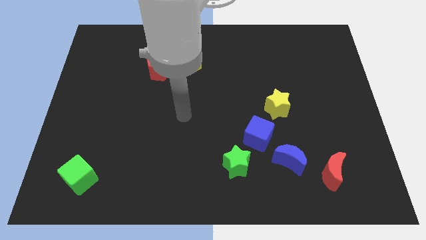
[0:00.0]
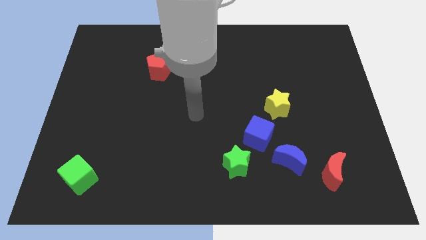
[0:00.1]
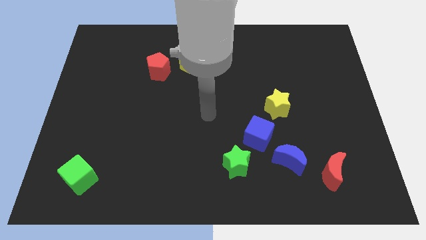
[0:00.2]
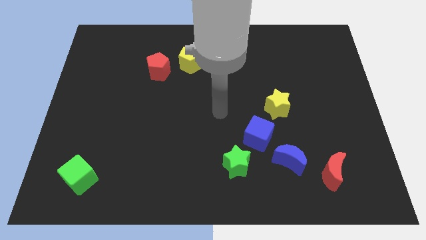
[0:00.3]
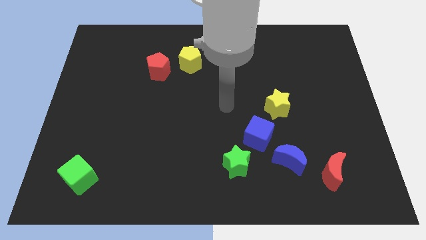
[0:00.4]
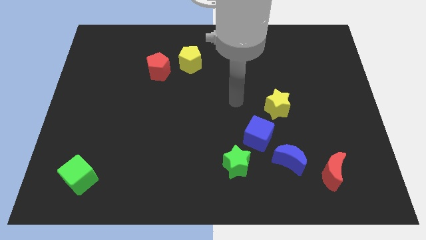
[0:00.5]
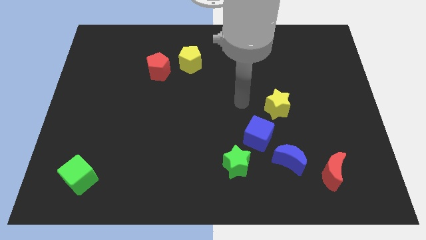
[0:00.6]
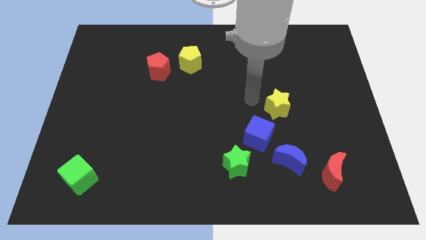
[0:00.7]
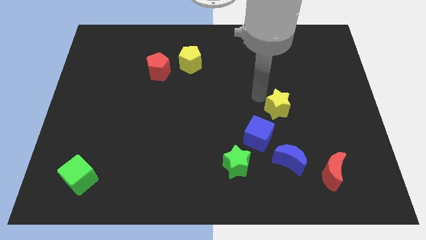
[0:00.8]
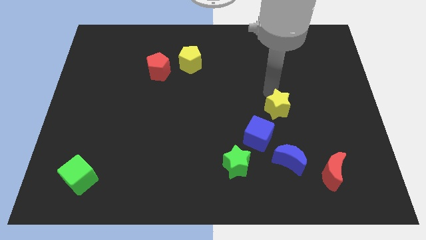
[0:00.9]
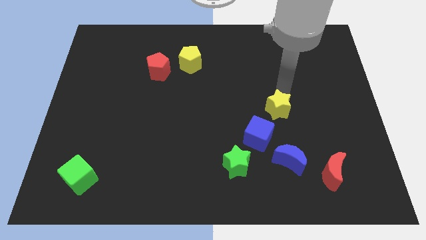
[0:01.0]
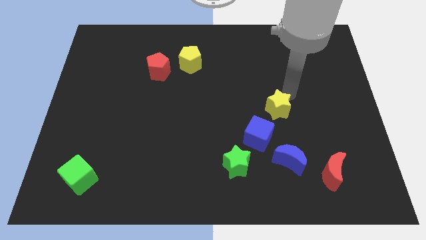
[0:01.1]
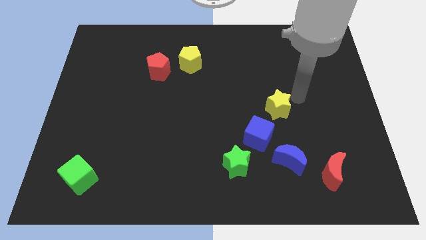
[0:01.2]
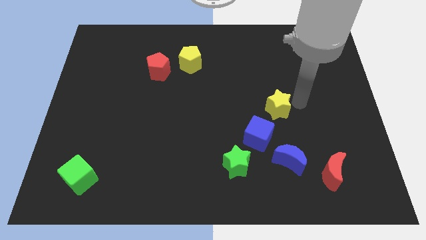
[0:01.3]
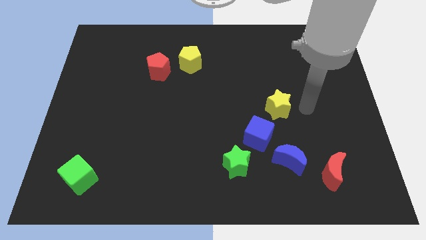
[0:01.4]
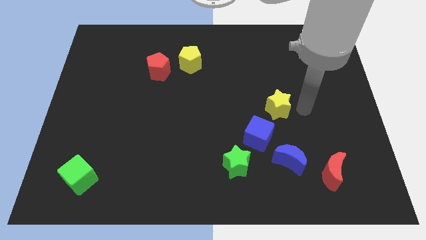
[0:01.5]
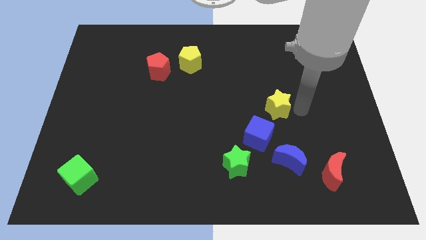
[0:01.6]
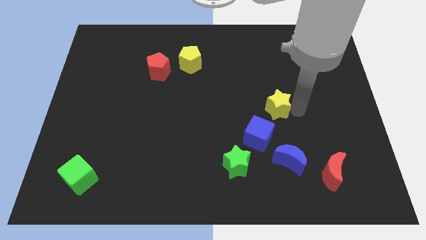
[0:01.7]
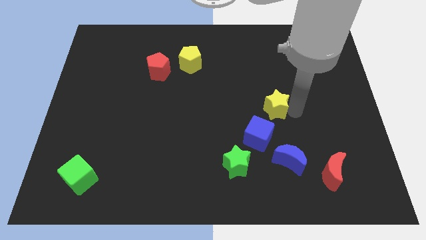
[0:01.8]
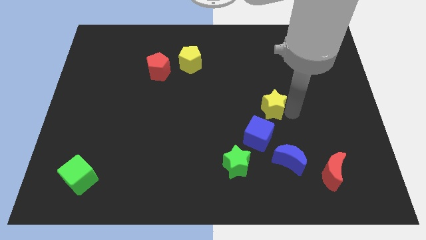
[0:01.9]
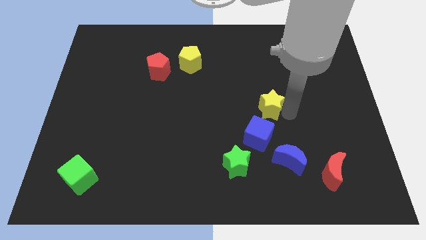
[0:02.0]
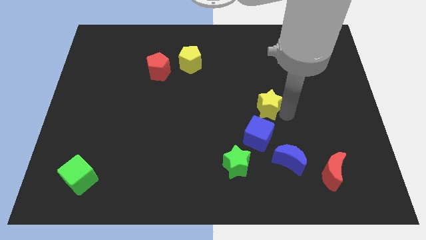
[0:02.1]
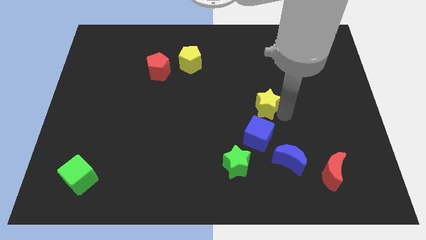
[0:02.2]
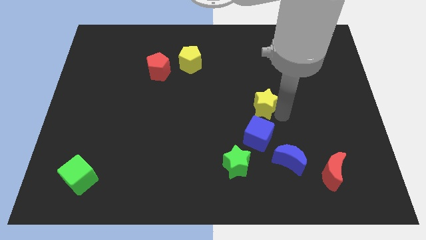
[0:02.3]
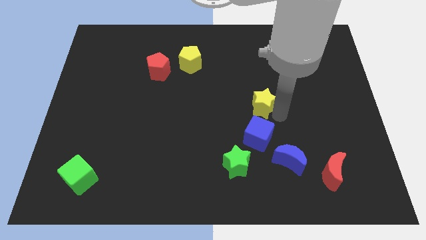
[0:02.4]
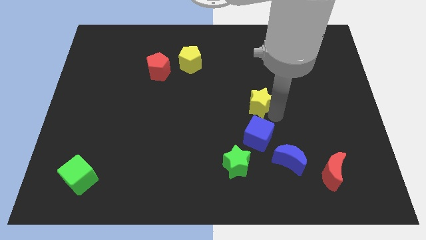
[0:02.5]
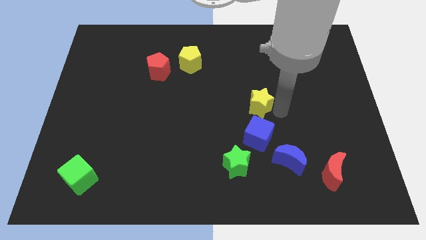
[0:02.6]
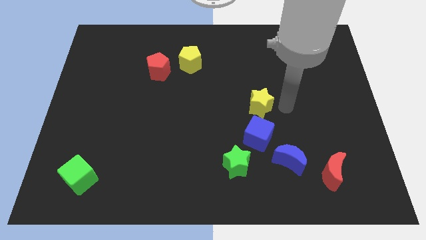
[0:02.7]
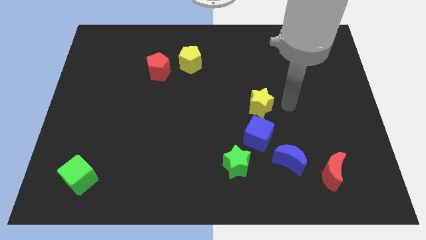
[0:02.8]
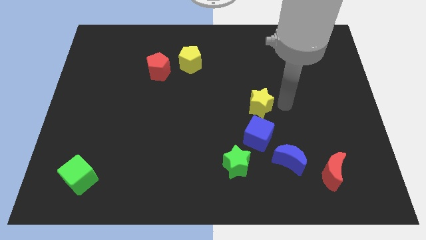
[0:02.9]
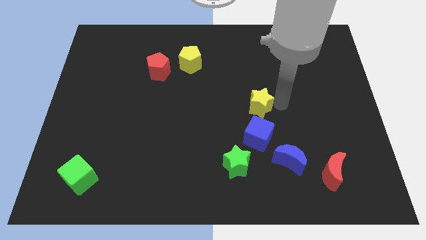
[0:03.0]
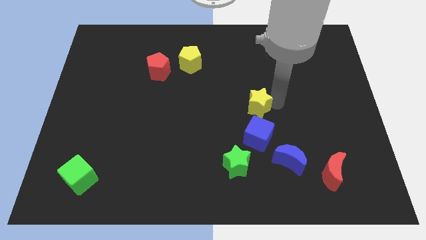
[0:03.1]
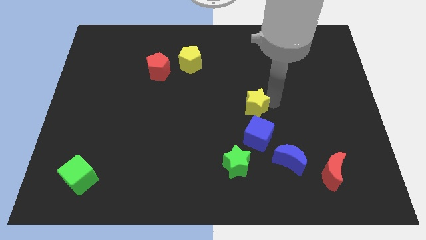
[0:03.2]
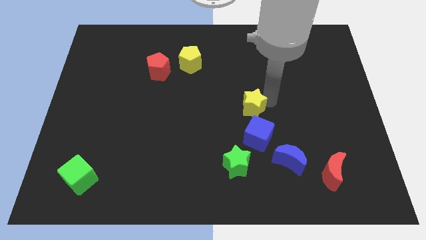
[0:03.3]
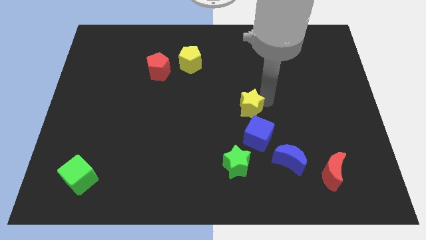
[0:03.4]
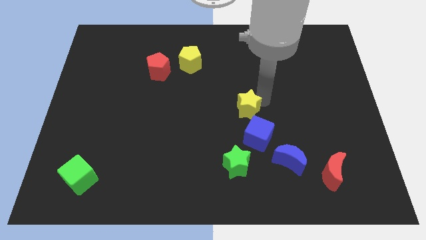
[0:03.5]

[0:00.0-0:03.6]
slightly move the yellow star to the left

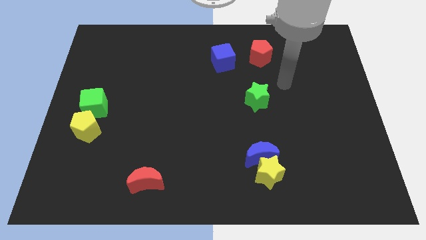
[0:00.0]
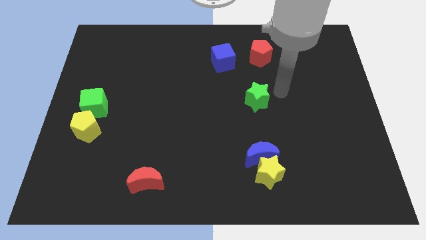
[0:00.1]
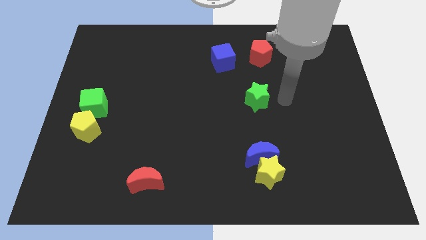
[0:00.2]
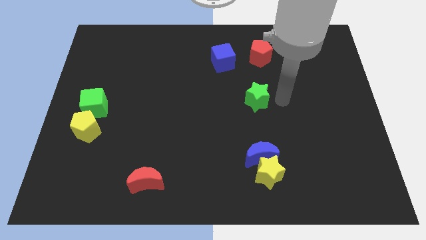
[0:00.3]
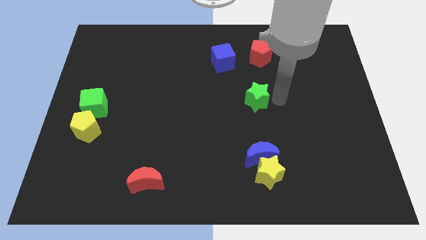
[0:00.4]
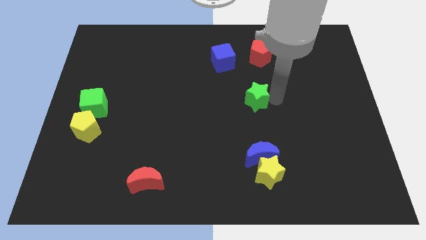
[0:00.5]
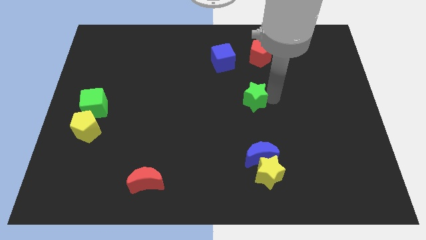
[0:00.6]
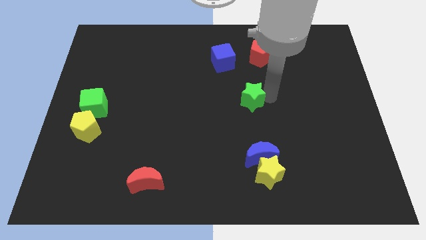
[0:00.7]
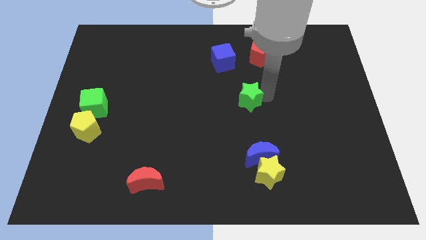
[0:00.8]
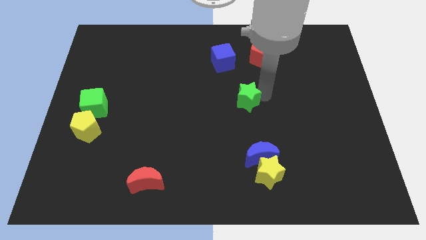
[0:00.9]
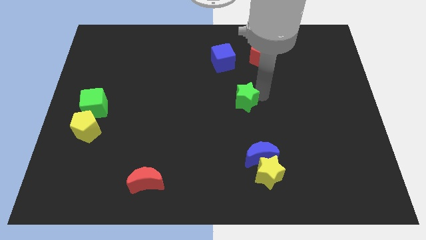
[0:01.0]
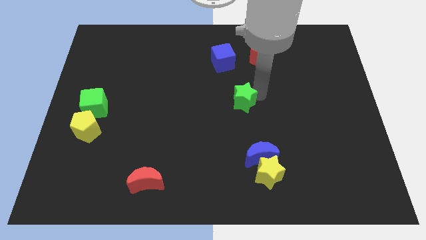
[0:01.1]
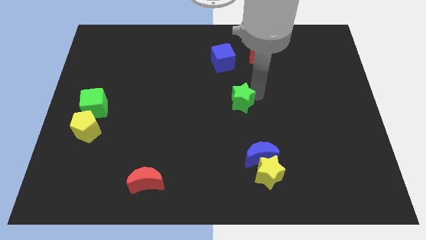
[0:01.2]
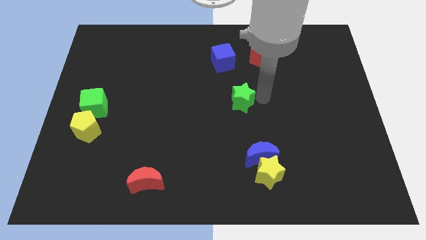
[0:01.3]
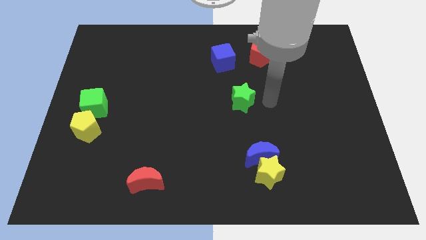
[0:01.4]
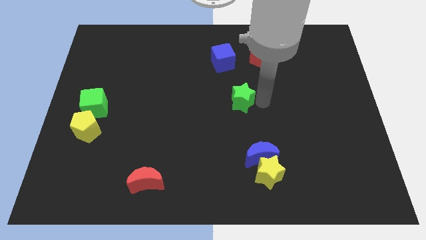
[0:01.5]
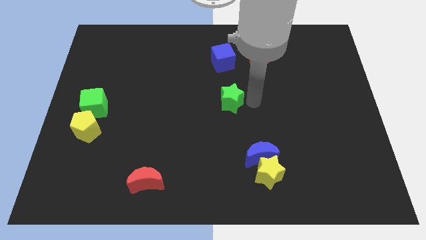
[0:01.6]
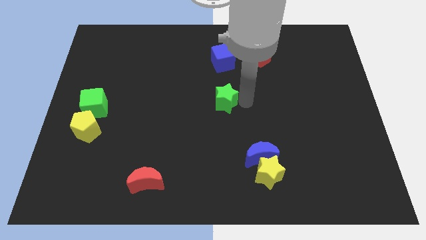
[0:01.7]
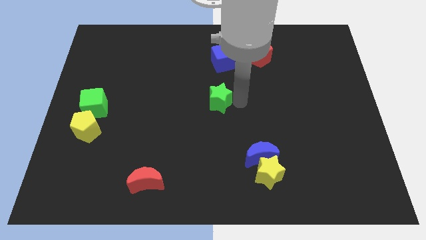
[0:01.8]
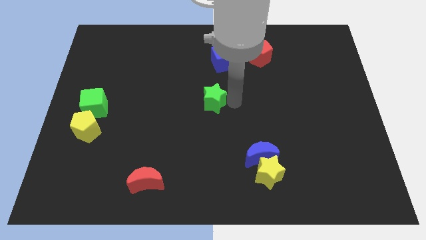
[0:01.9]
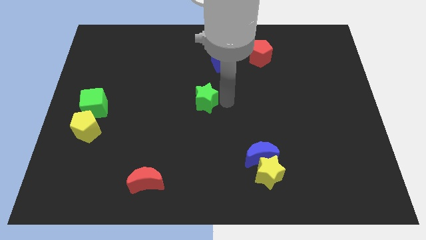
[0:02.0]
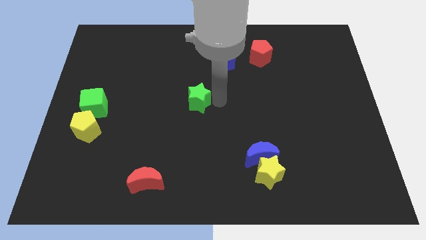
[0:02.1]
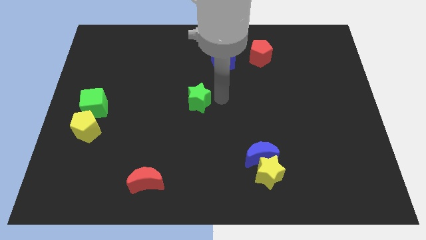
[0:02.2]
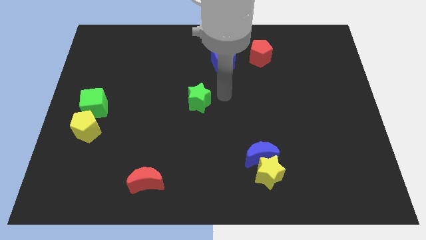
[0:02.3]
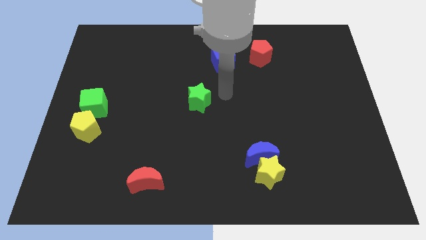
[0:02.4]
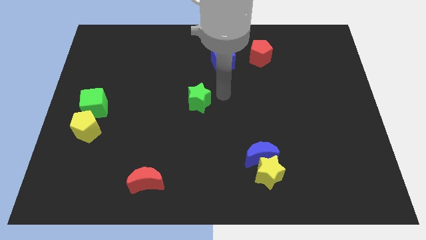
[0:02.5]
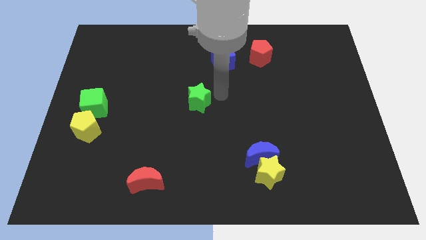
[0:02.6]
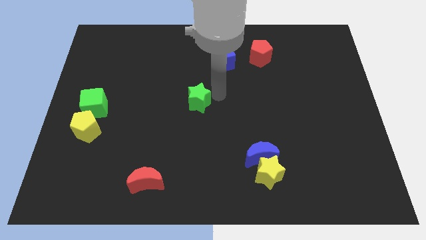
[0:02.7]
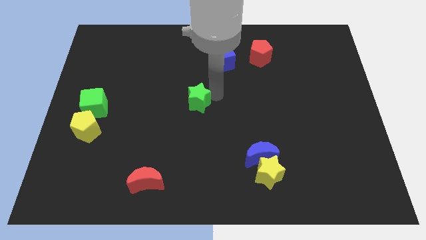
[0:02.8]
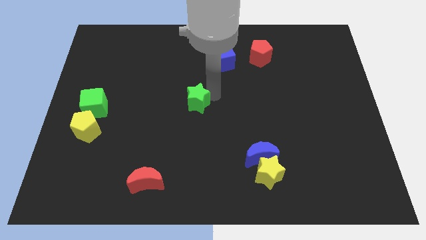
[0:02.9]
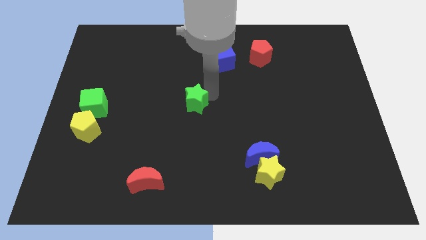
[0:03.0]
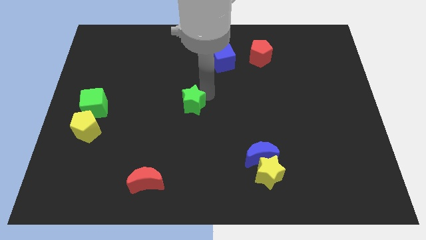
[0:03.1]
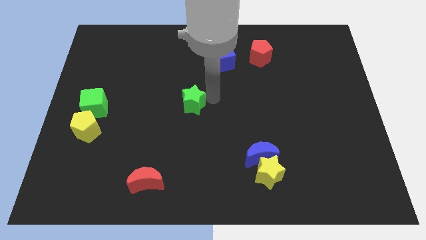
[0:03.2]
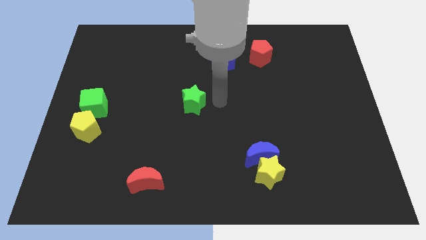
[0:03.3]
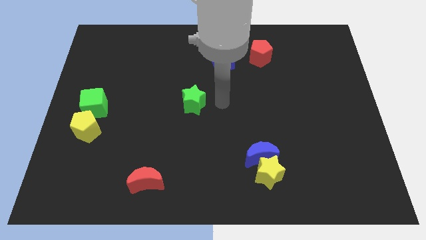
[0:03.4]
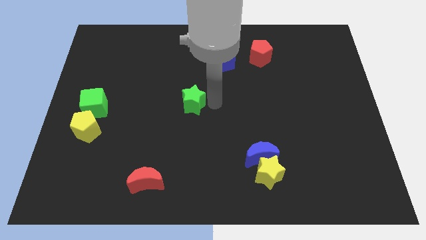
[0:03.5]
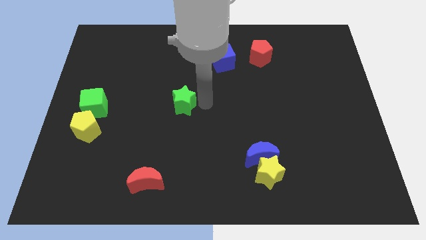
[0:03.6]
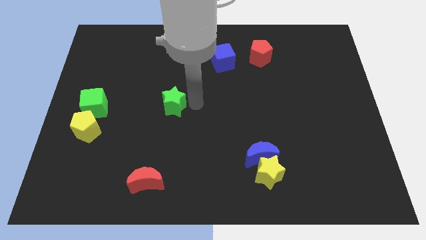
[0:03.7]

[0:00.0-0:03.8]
move the green star left

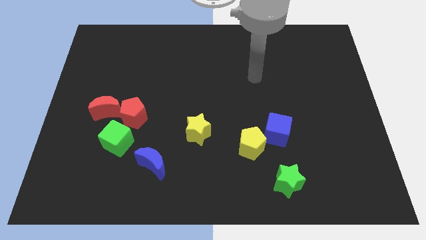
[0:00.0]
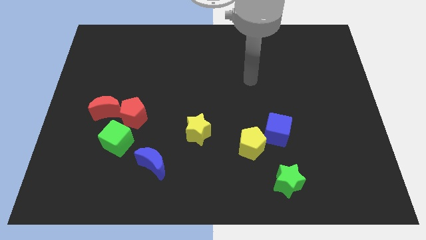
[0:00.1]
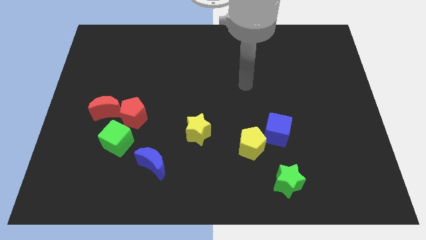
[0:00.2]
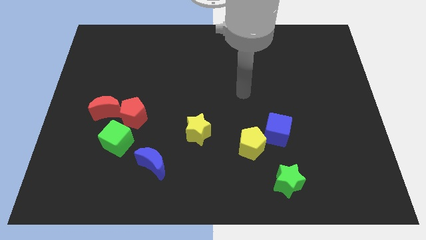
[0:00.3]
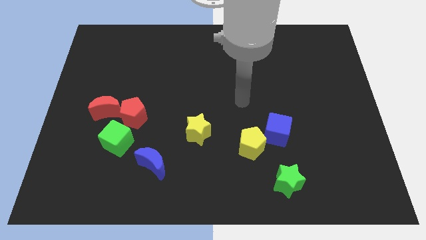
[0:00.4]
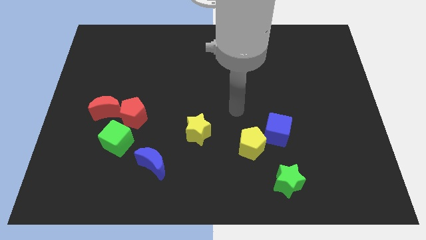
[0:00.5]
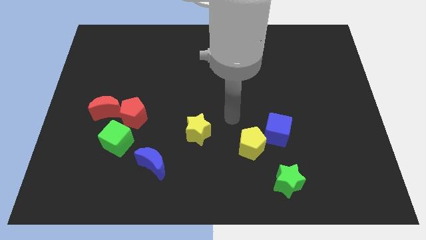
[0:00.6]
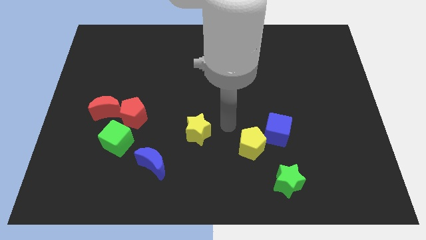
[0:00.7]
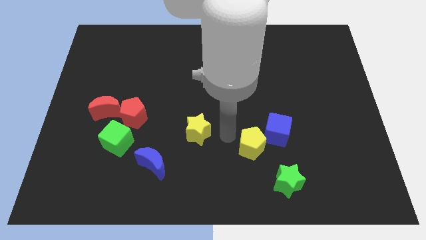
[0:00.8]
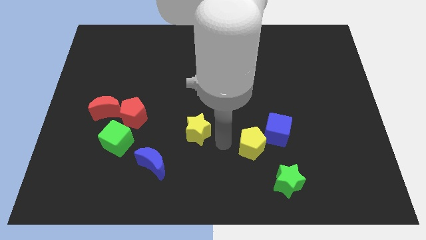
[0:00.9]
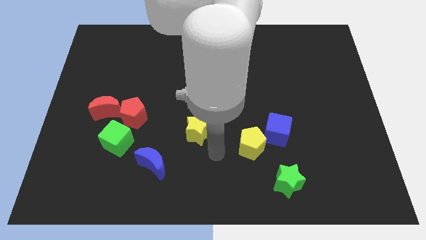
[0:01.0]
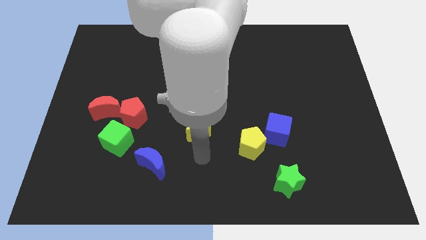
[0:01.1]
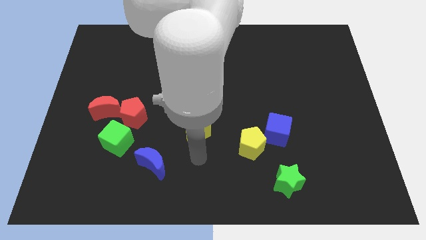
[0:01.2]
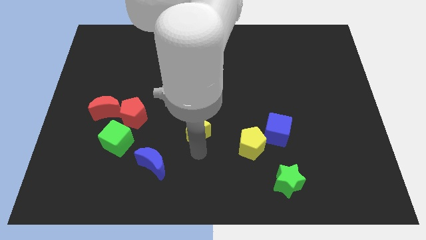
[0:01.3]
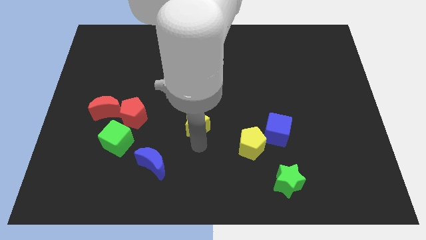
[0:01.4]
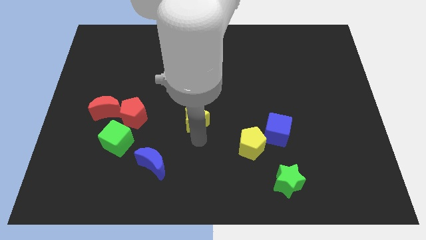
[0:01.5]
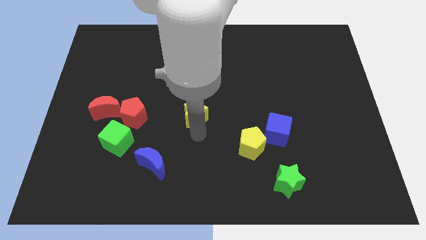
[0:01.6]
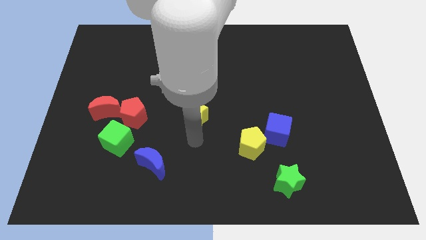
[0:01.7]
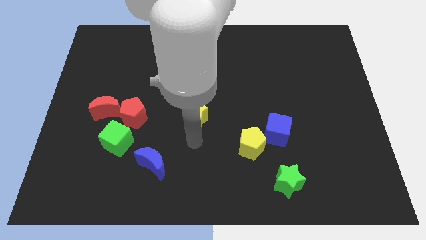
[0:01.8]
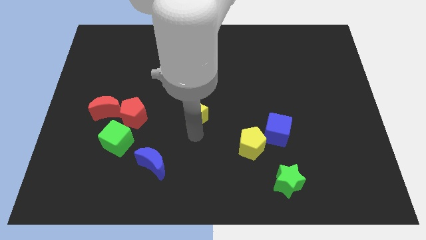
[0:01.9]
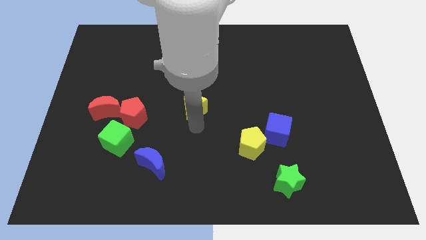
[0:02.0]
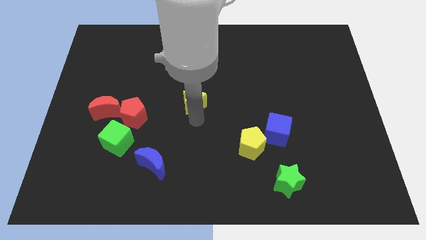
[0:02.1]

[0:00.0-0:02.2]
move the yellow star up slightly
